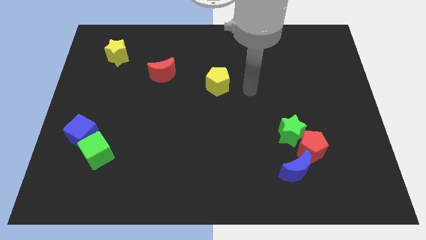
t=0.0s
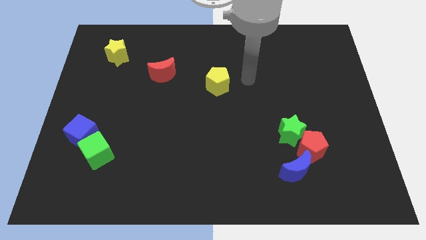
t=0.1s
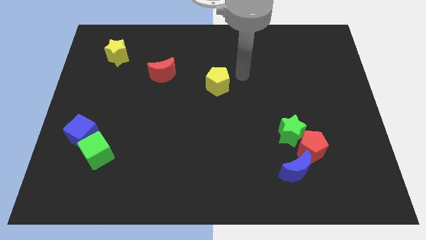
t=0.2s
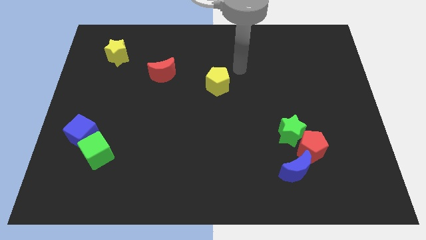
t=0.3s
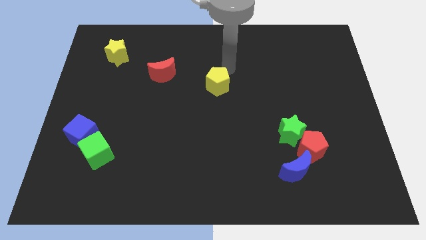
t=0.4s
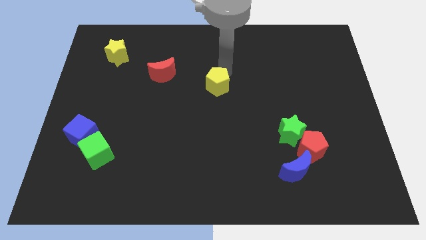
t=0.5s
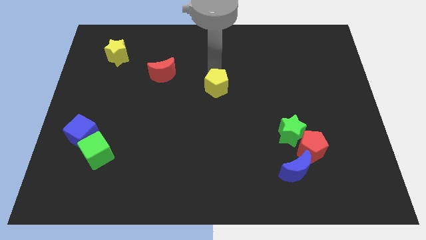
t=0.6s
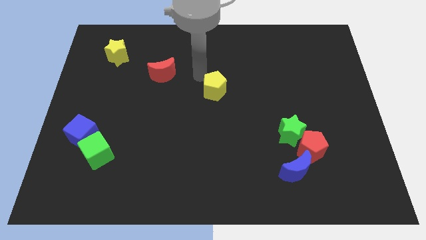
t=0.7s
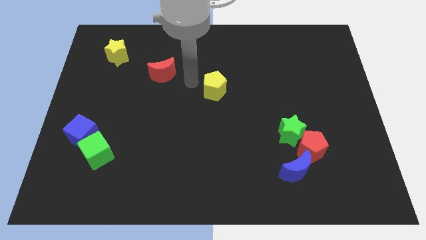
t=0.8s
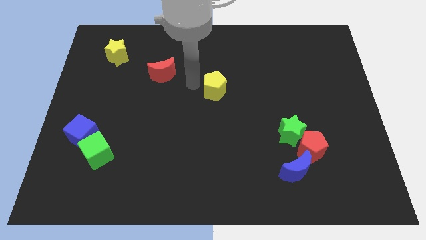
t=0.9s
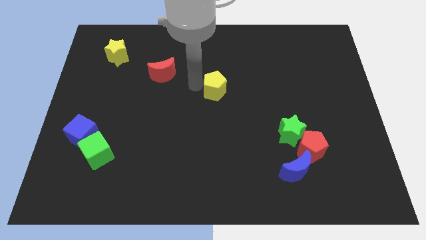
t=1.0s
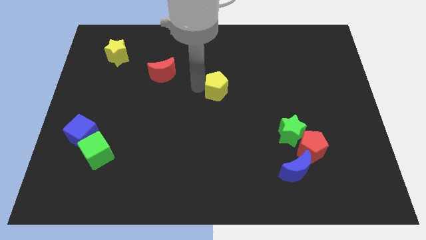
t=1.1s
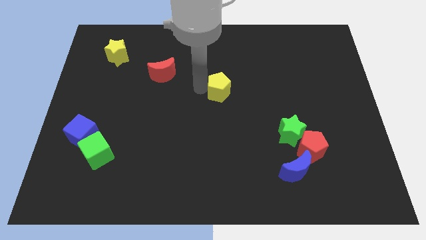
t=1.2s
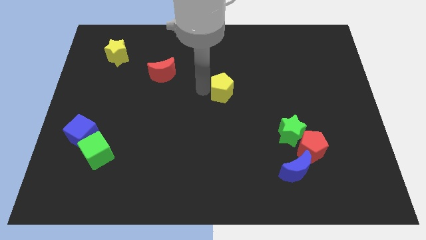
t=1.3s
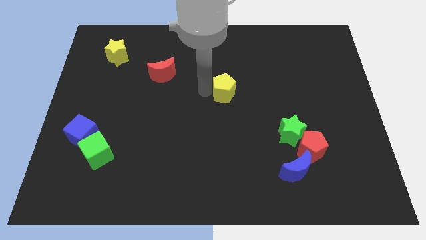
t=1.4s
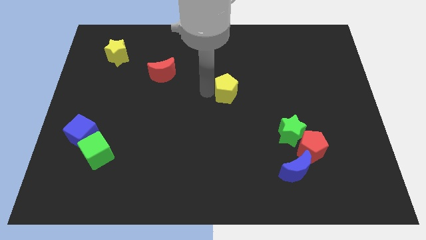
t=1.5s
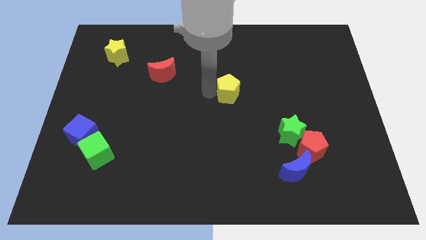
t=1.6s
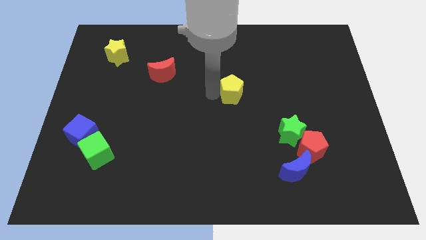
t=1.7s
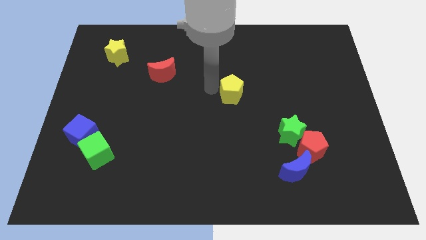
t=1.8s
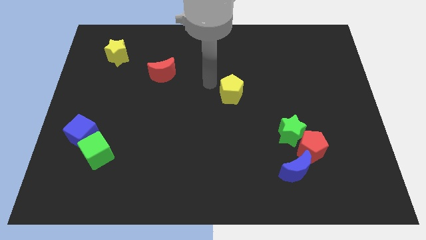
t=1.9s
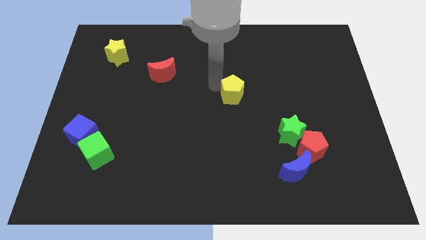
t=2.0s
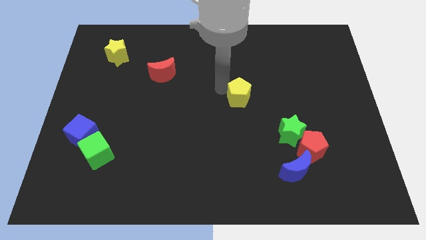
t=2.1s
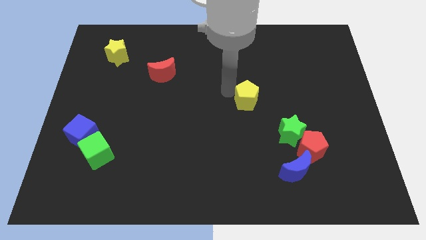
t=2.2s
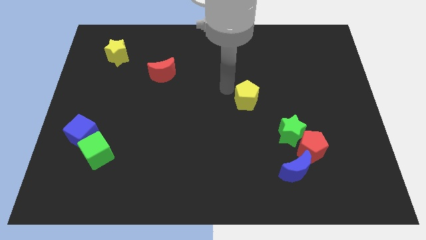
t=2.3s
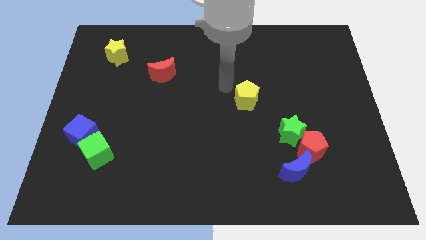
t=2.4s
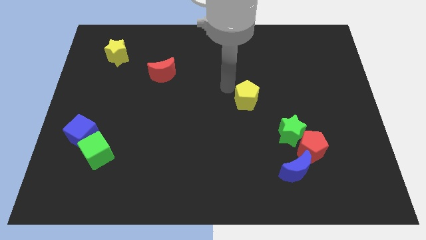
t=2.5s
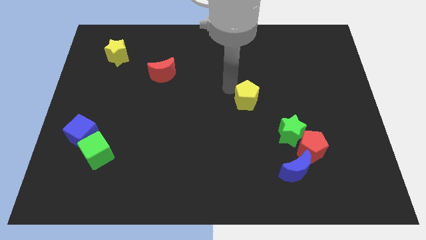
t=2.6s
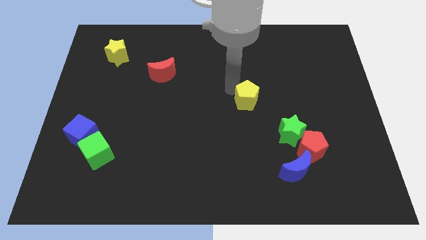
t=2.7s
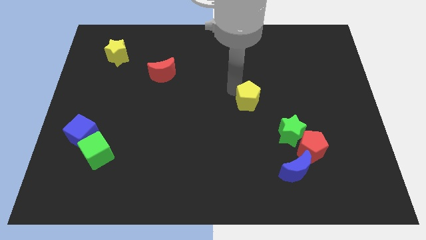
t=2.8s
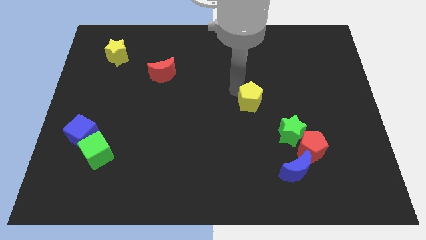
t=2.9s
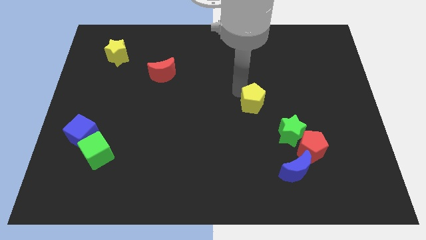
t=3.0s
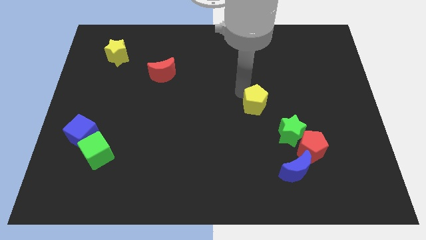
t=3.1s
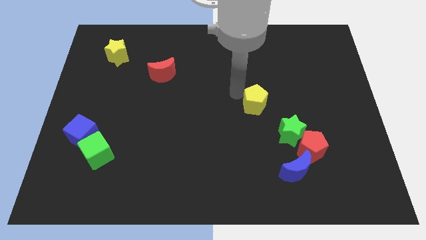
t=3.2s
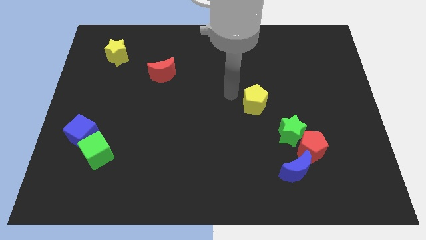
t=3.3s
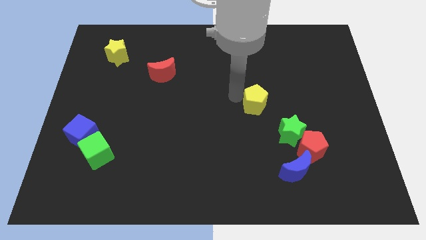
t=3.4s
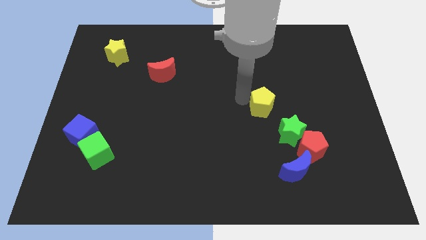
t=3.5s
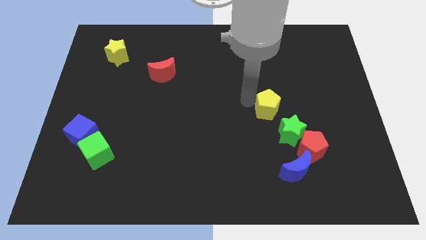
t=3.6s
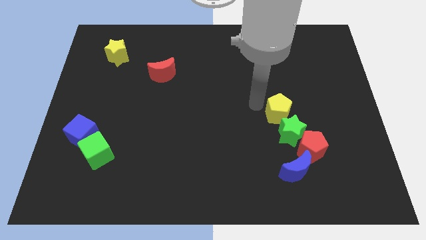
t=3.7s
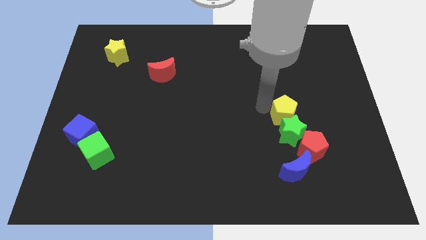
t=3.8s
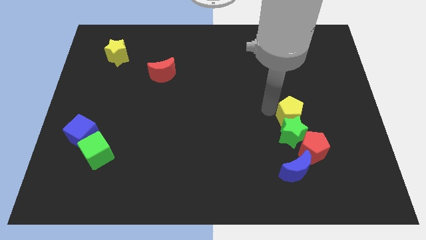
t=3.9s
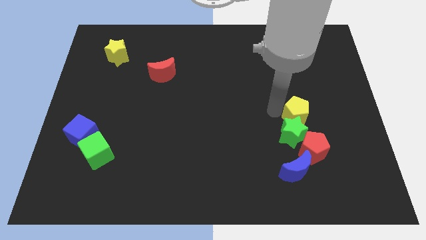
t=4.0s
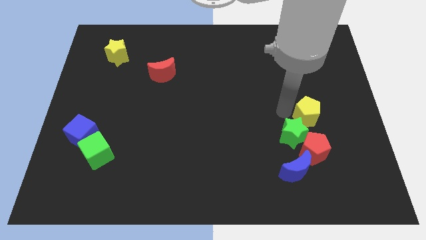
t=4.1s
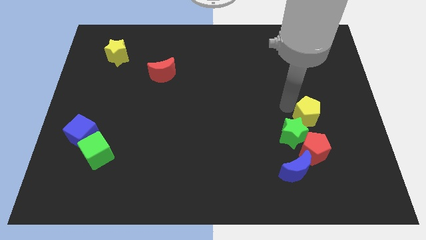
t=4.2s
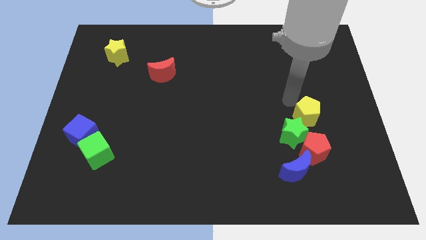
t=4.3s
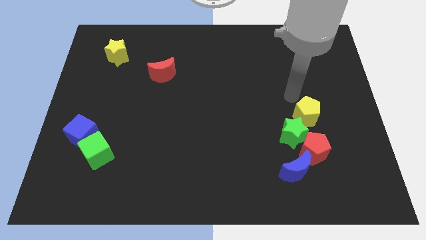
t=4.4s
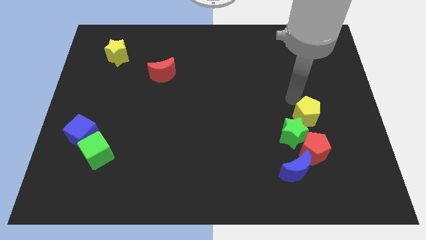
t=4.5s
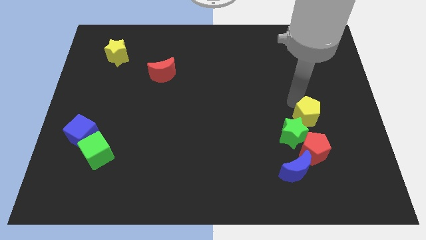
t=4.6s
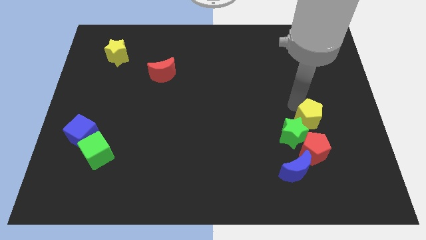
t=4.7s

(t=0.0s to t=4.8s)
move the yellow pentagon down and right diagonally

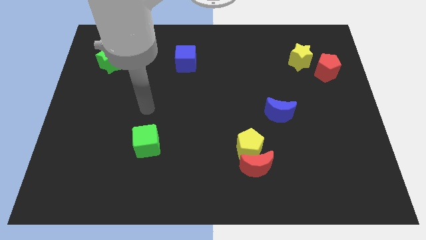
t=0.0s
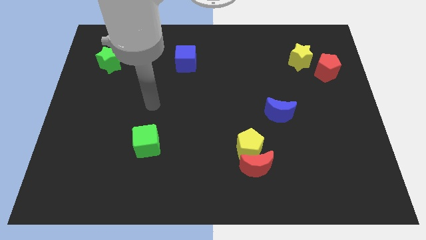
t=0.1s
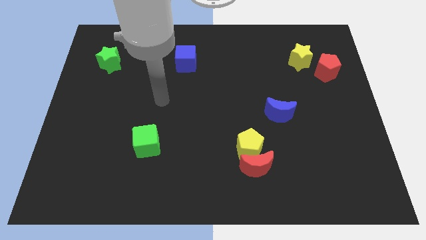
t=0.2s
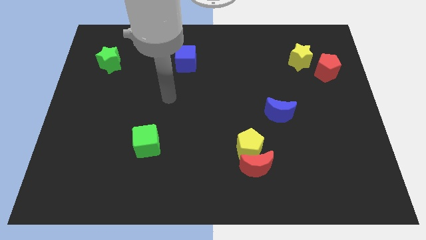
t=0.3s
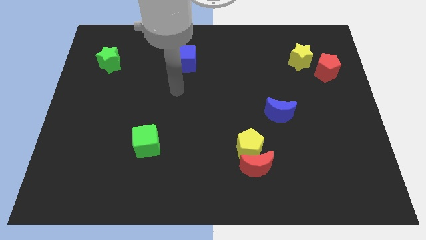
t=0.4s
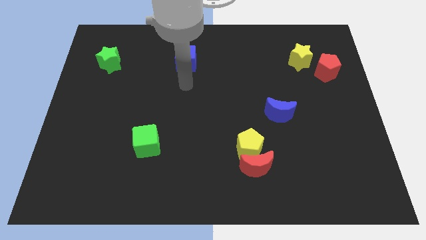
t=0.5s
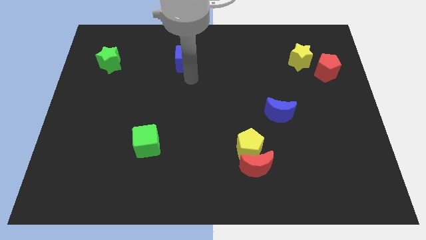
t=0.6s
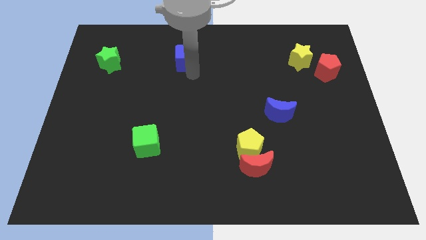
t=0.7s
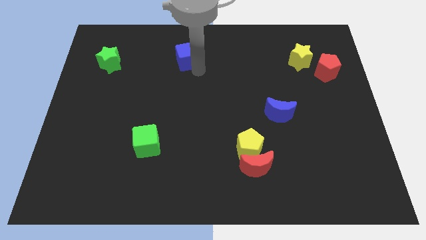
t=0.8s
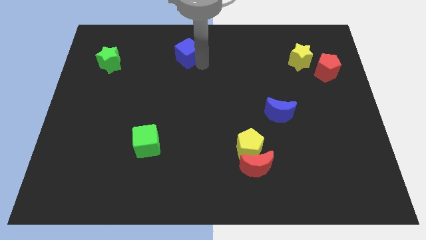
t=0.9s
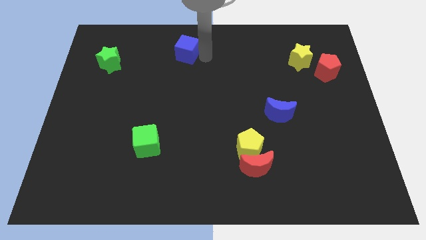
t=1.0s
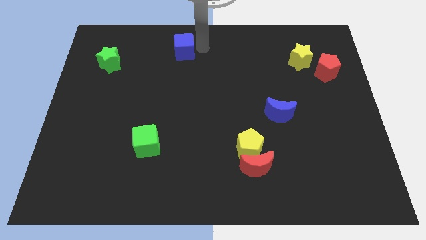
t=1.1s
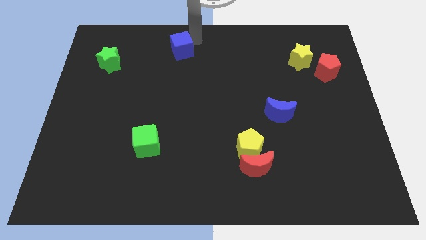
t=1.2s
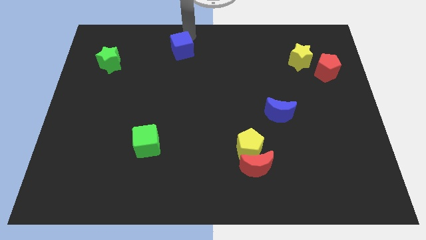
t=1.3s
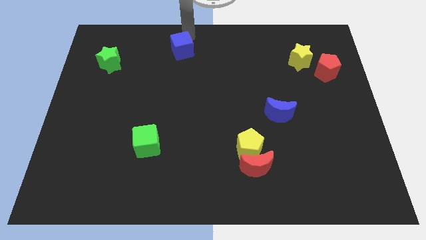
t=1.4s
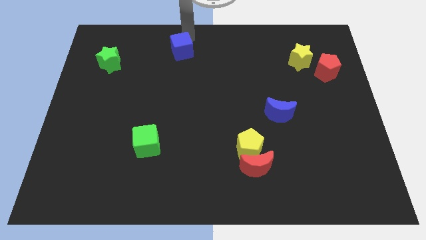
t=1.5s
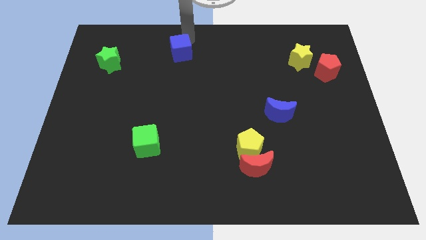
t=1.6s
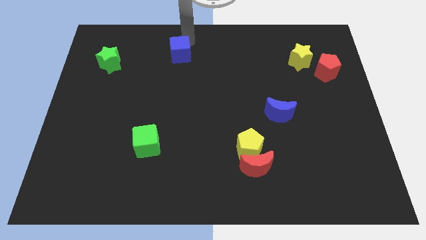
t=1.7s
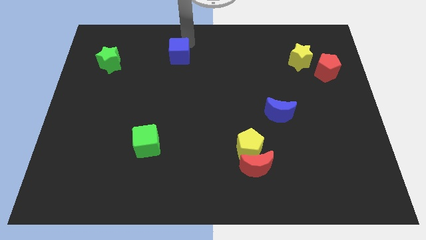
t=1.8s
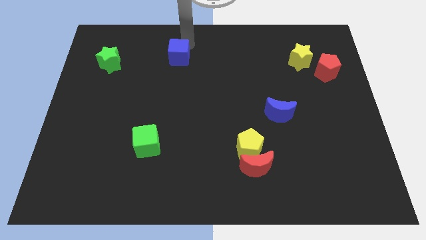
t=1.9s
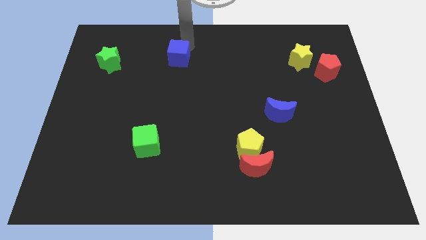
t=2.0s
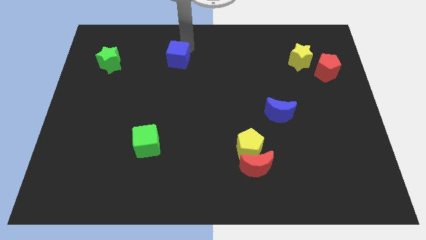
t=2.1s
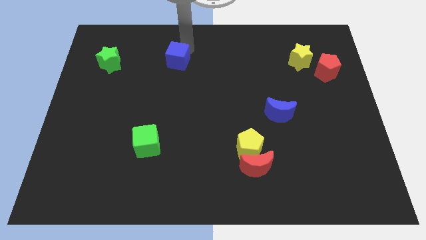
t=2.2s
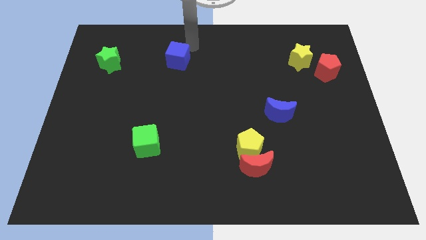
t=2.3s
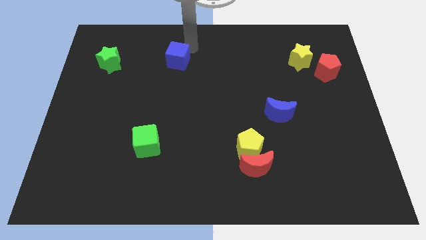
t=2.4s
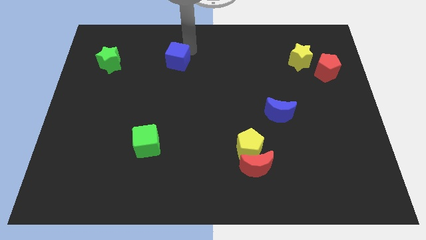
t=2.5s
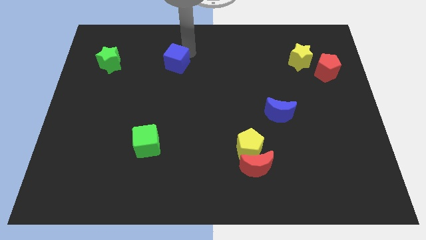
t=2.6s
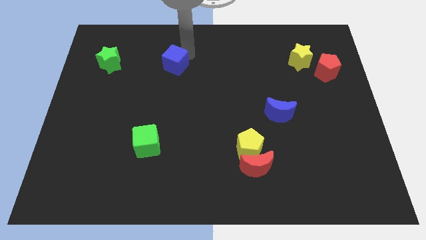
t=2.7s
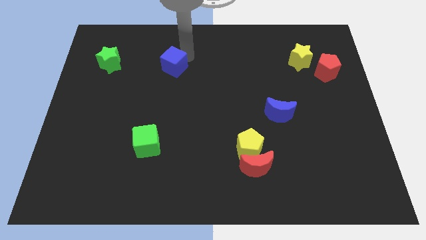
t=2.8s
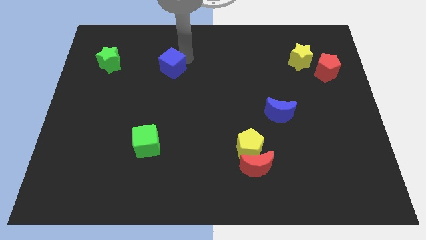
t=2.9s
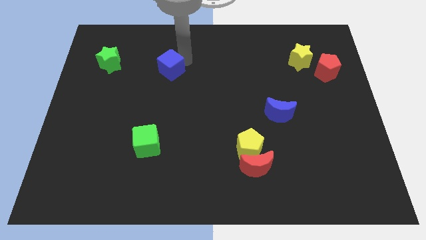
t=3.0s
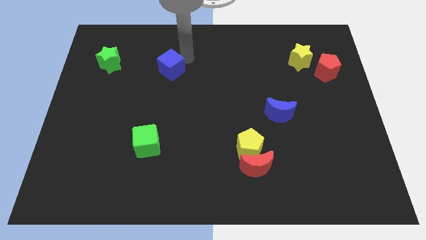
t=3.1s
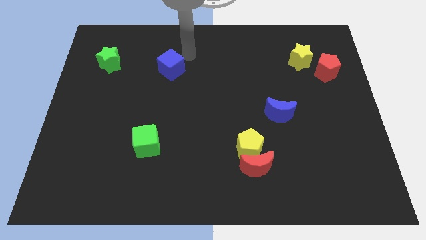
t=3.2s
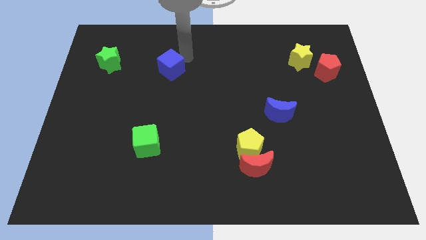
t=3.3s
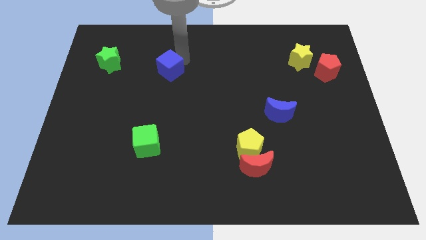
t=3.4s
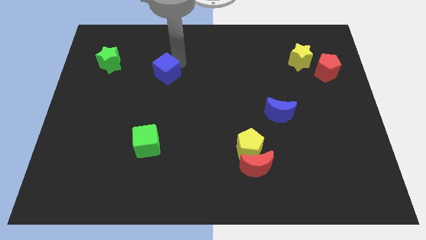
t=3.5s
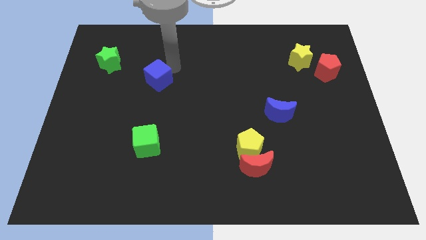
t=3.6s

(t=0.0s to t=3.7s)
slide the blue cube a bit downwards and left diagonally
